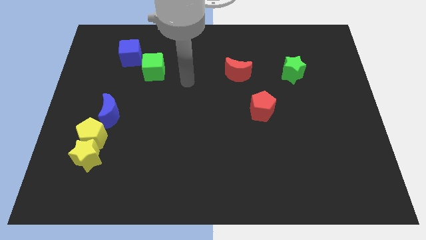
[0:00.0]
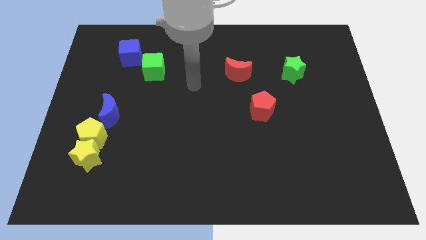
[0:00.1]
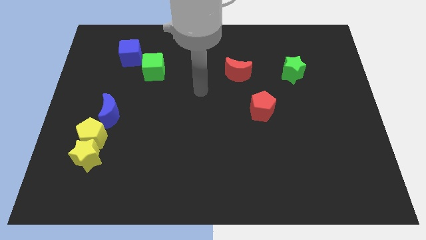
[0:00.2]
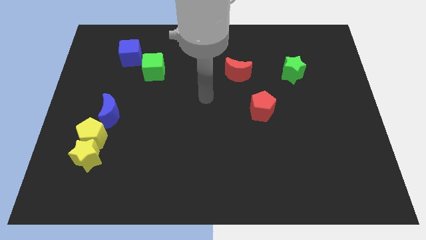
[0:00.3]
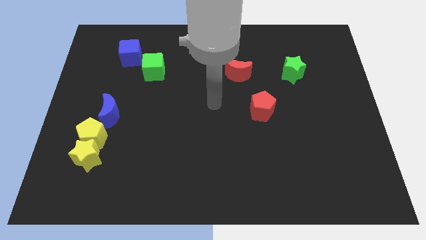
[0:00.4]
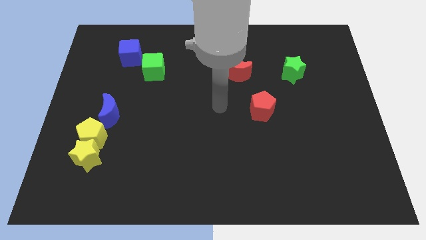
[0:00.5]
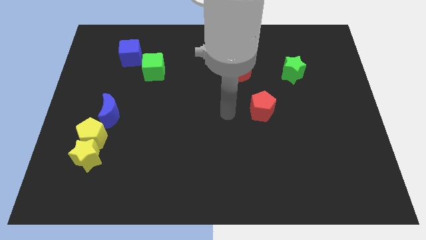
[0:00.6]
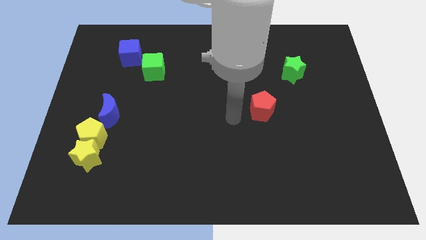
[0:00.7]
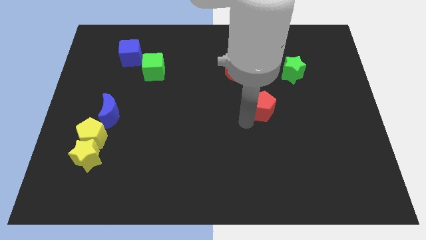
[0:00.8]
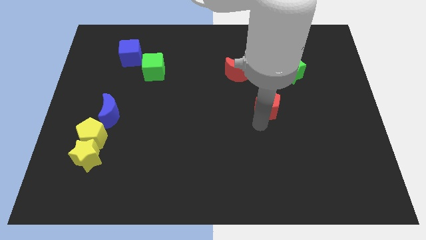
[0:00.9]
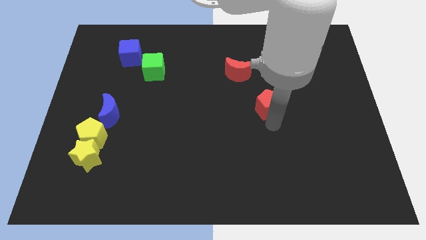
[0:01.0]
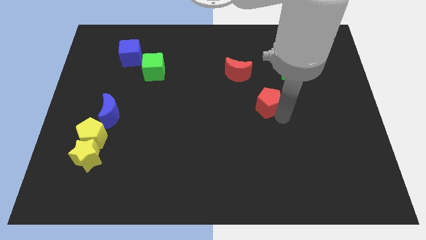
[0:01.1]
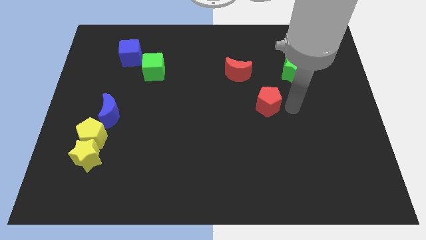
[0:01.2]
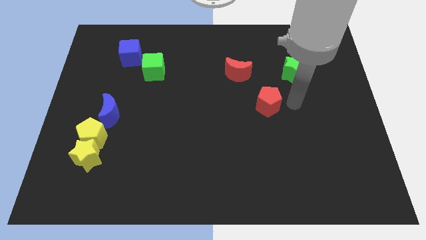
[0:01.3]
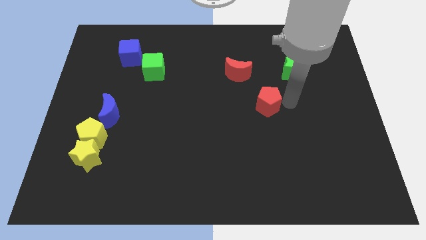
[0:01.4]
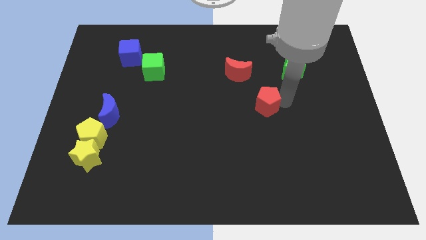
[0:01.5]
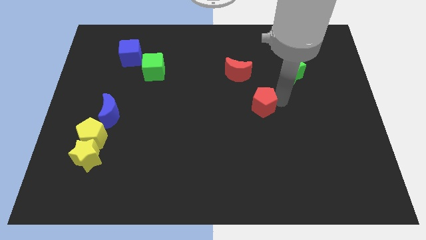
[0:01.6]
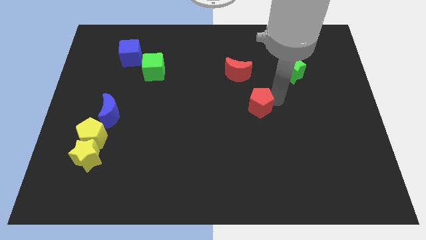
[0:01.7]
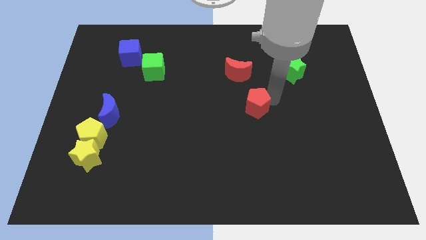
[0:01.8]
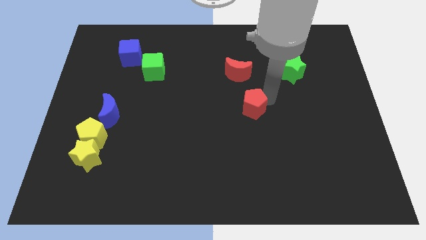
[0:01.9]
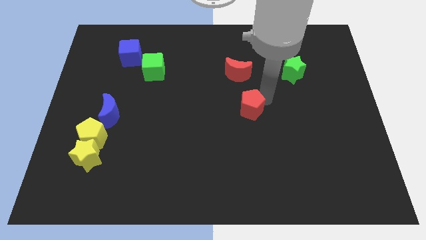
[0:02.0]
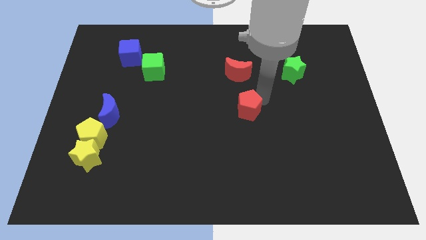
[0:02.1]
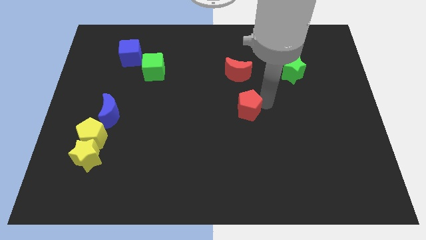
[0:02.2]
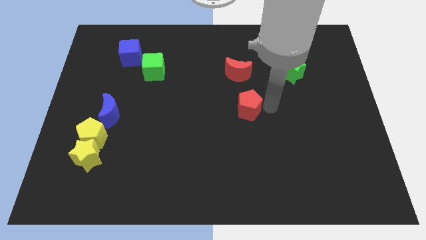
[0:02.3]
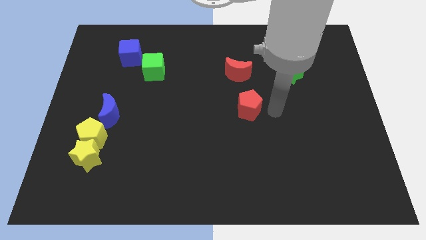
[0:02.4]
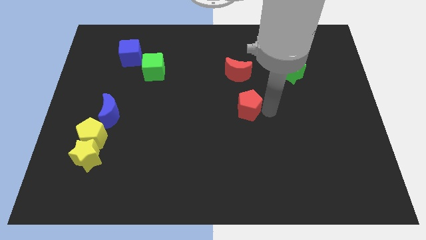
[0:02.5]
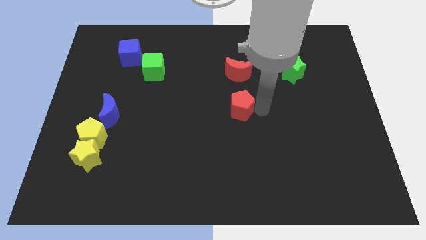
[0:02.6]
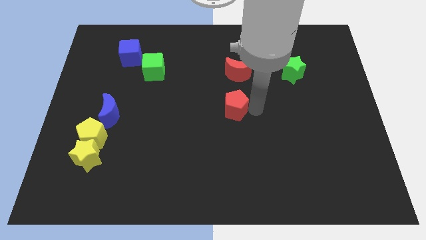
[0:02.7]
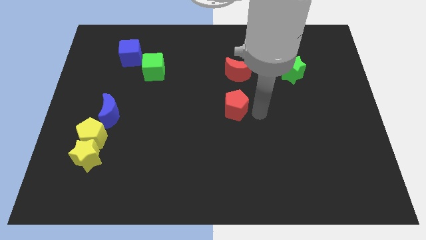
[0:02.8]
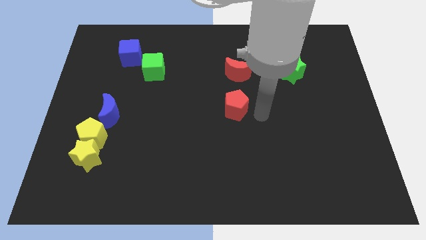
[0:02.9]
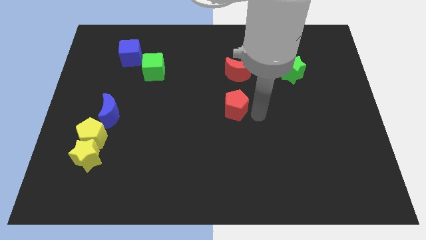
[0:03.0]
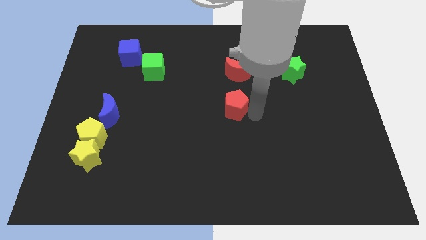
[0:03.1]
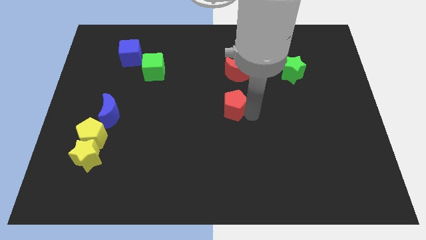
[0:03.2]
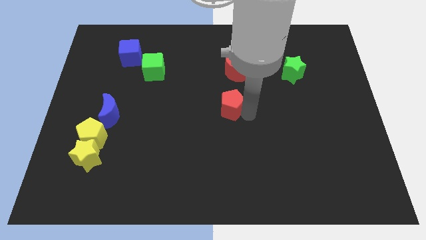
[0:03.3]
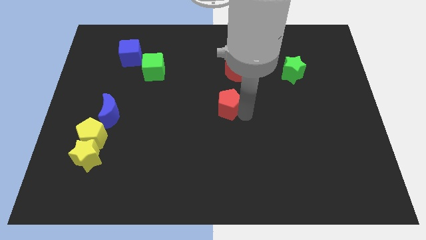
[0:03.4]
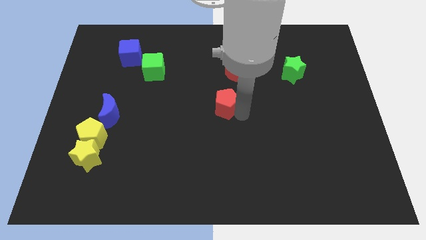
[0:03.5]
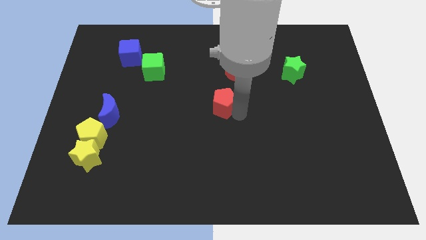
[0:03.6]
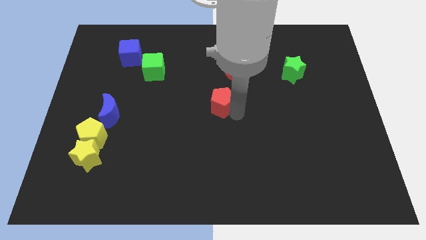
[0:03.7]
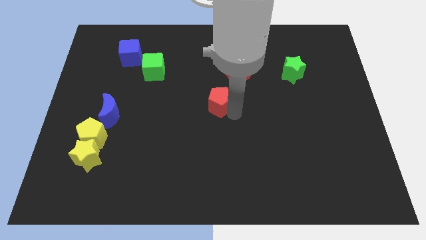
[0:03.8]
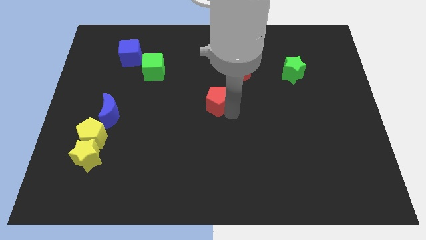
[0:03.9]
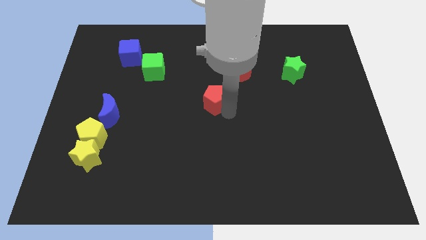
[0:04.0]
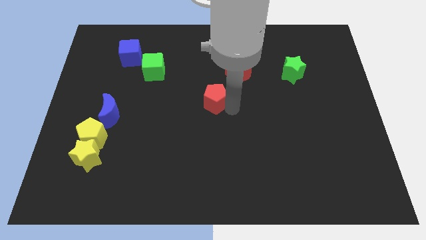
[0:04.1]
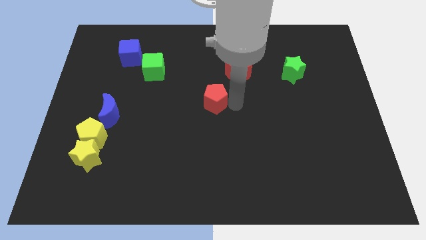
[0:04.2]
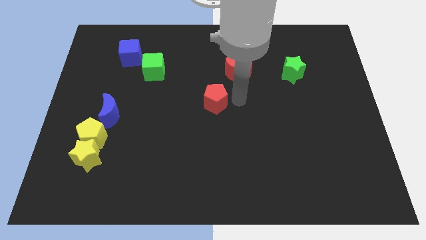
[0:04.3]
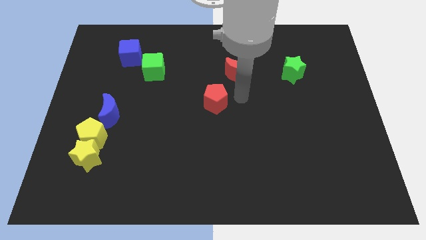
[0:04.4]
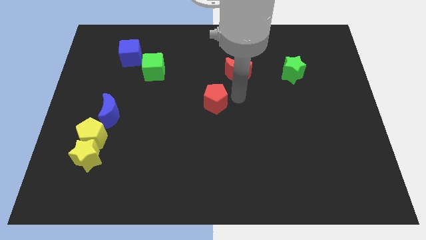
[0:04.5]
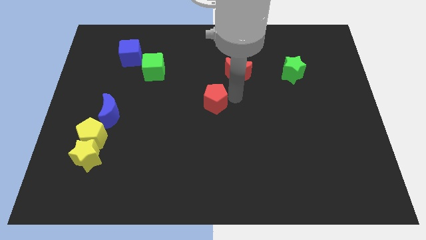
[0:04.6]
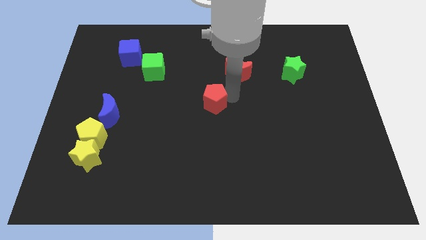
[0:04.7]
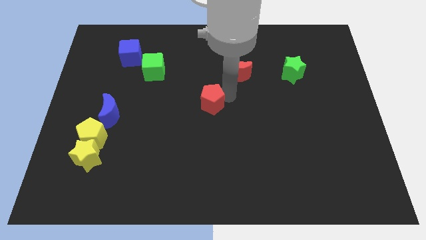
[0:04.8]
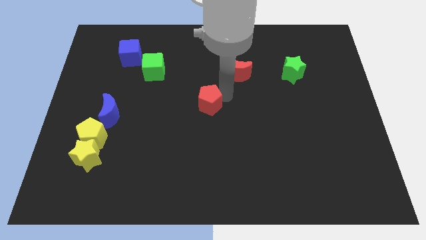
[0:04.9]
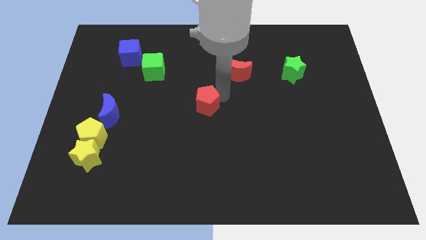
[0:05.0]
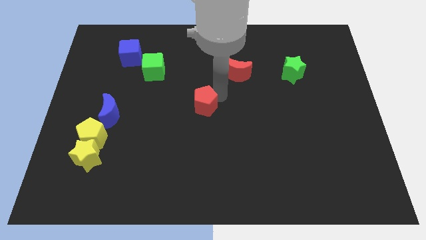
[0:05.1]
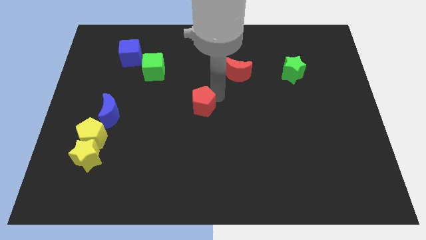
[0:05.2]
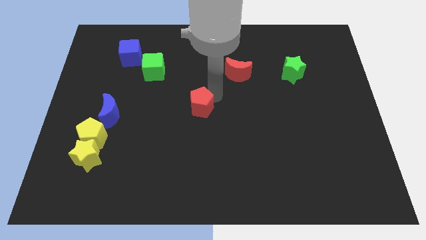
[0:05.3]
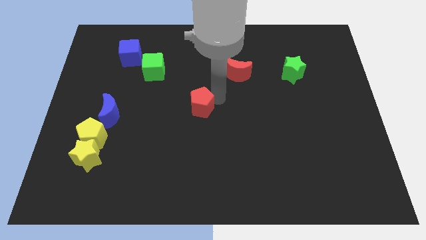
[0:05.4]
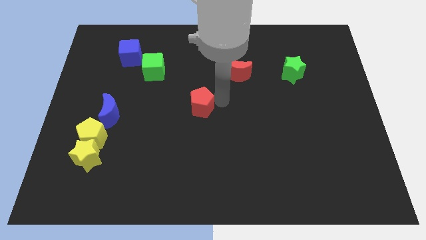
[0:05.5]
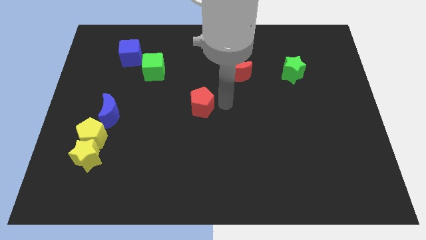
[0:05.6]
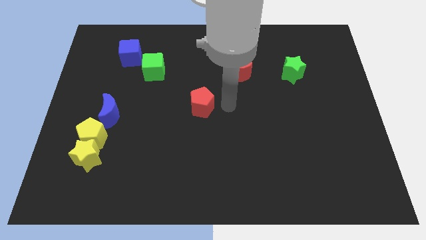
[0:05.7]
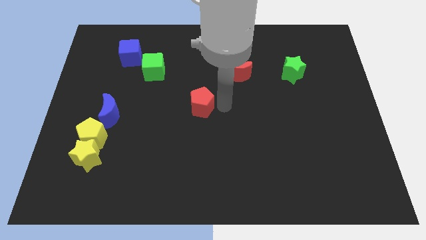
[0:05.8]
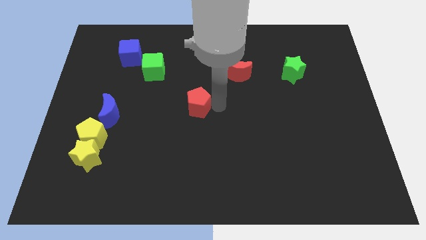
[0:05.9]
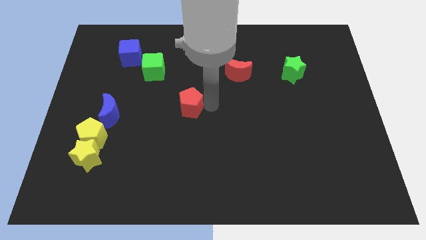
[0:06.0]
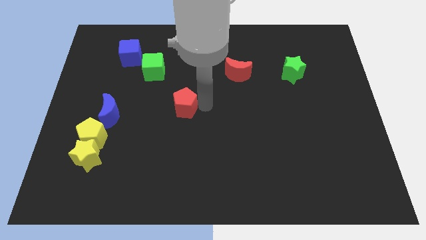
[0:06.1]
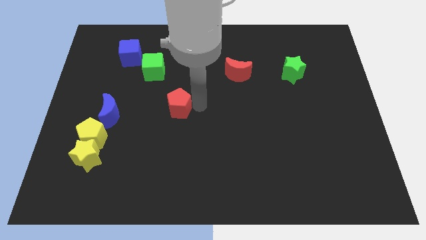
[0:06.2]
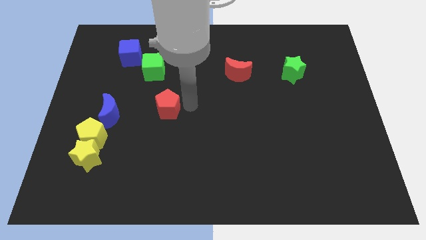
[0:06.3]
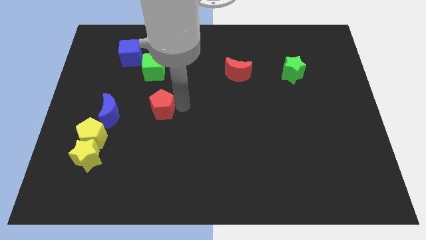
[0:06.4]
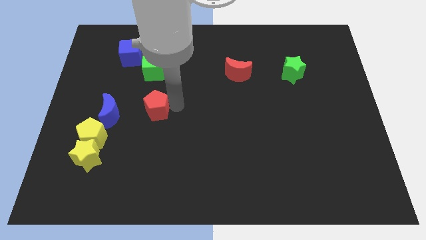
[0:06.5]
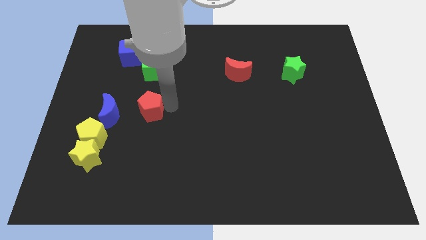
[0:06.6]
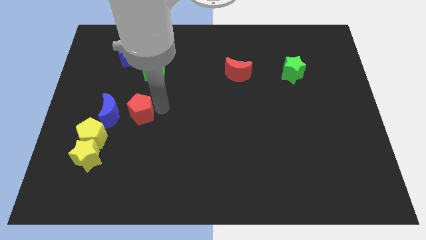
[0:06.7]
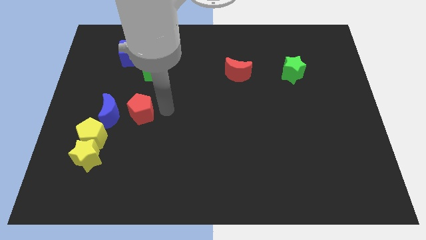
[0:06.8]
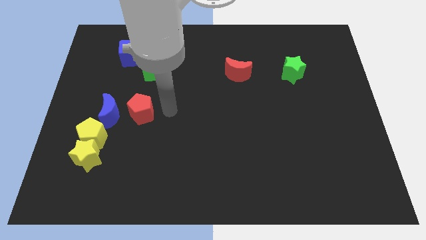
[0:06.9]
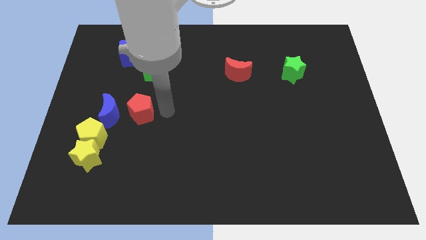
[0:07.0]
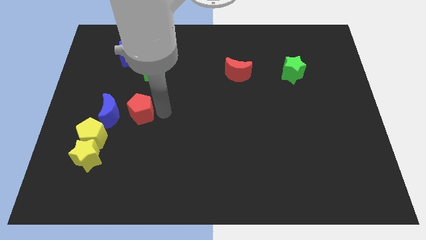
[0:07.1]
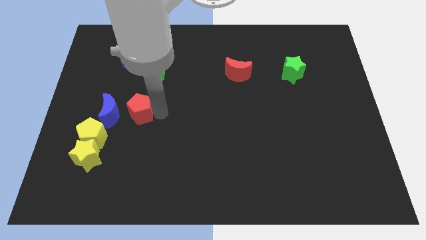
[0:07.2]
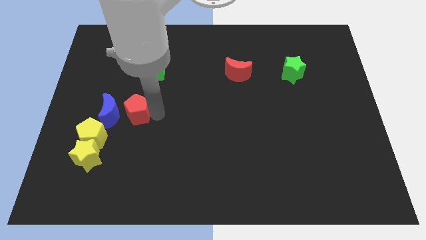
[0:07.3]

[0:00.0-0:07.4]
put the red pentagon towards the blue moon
